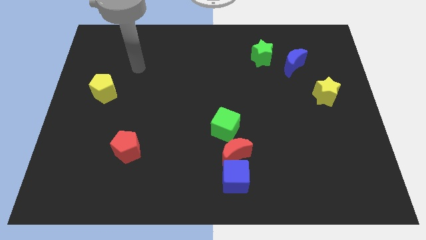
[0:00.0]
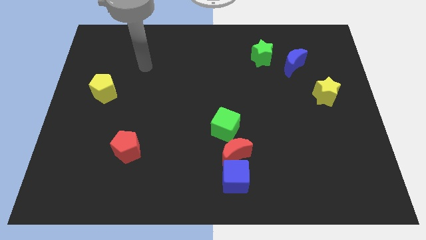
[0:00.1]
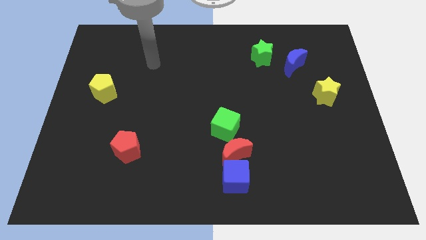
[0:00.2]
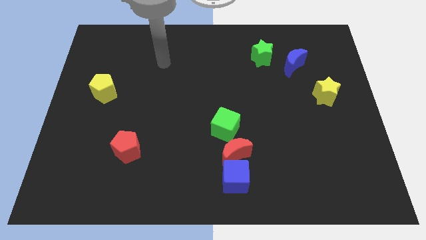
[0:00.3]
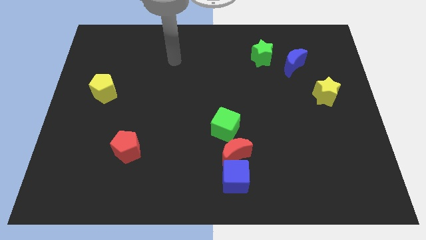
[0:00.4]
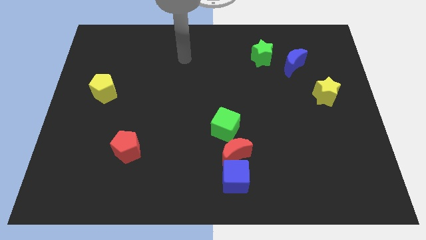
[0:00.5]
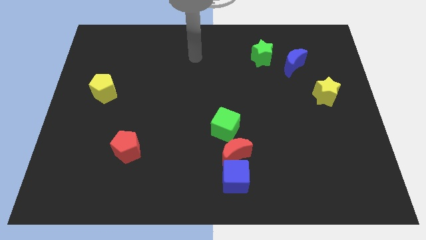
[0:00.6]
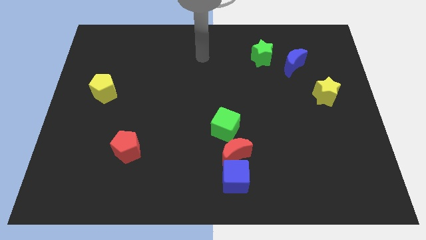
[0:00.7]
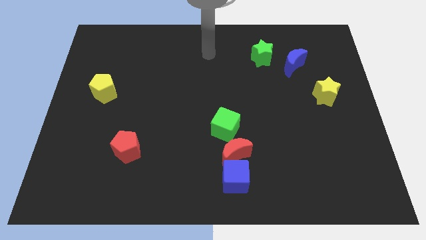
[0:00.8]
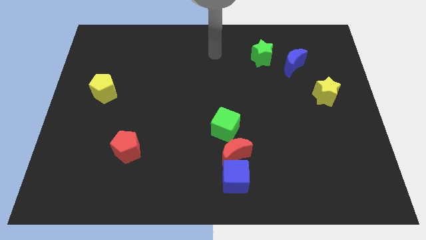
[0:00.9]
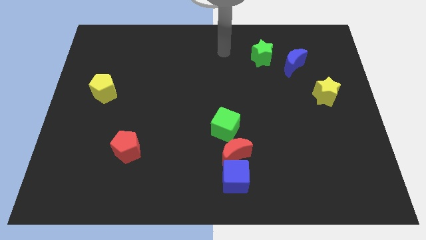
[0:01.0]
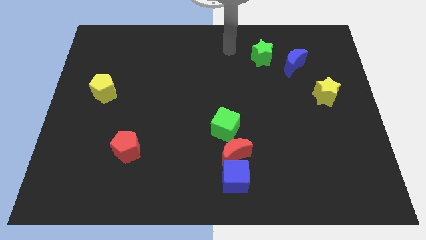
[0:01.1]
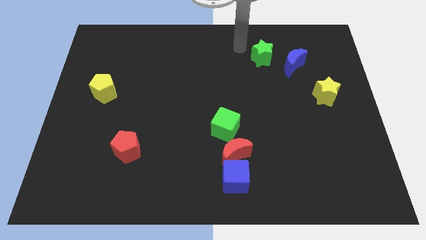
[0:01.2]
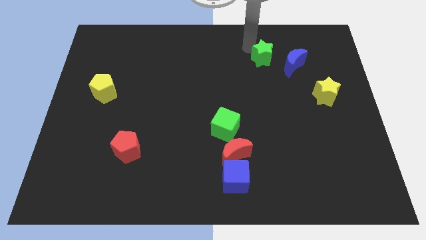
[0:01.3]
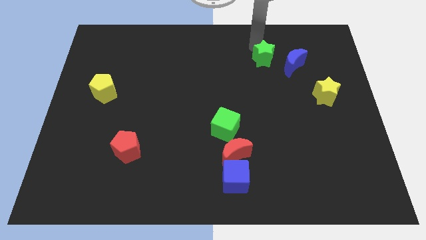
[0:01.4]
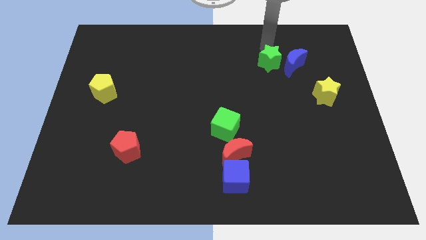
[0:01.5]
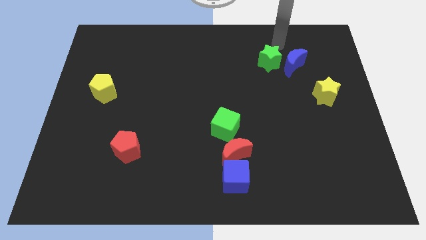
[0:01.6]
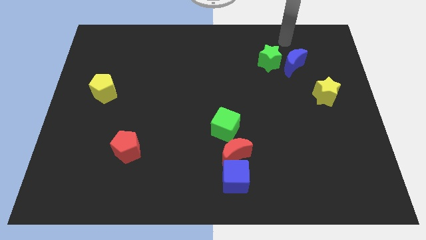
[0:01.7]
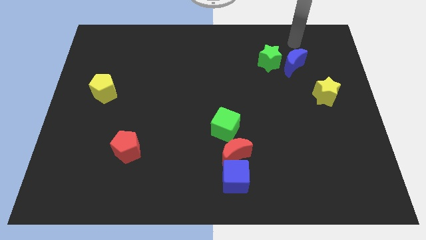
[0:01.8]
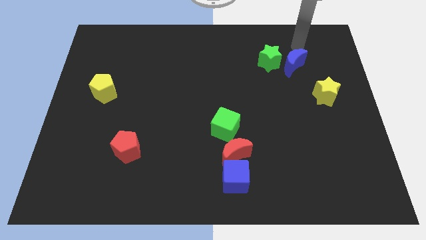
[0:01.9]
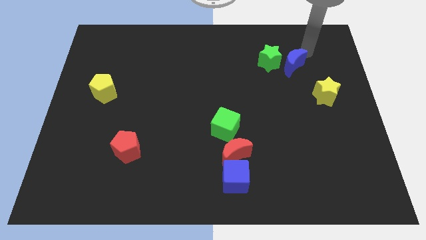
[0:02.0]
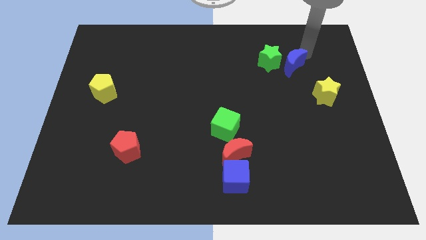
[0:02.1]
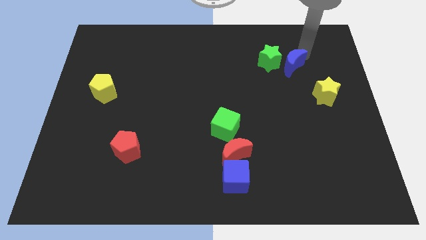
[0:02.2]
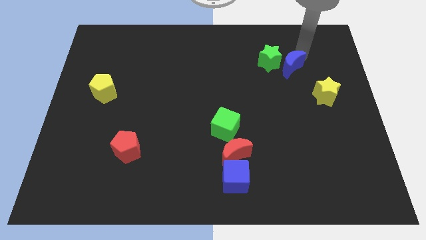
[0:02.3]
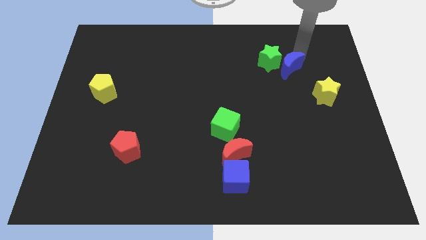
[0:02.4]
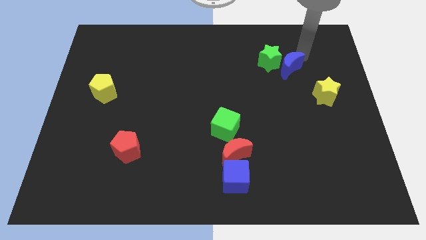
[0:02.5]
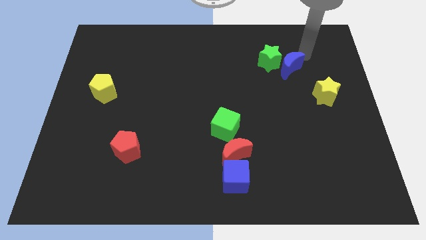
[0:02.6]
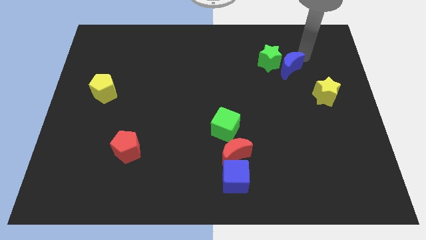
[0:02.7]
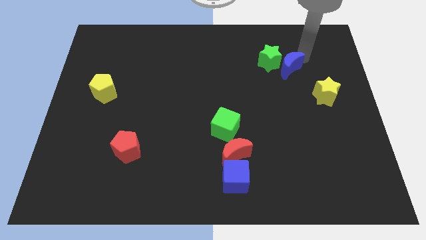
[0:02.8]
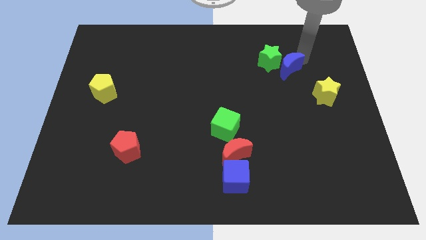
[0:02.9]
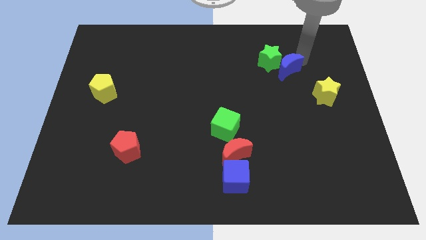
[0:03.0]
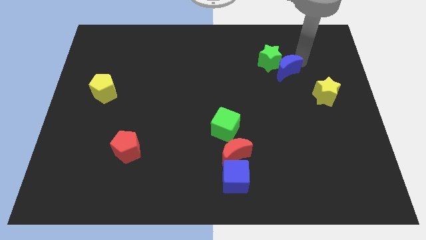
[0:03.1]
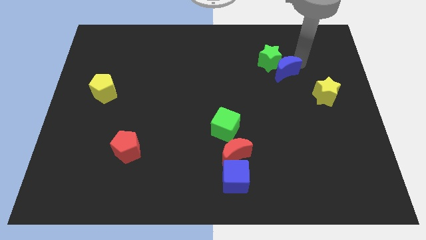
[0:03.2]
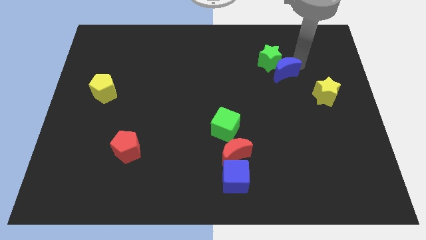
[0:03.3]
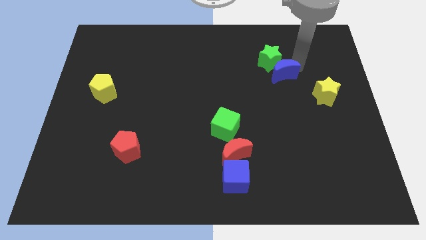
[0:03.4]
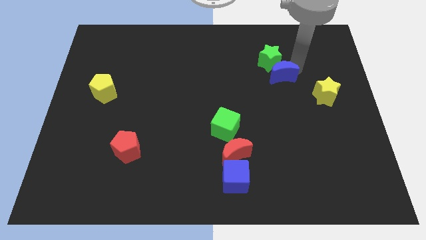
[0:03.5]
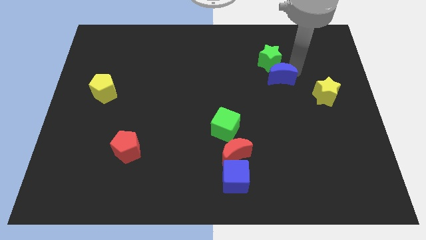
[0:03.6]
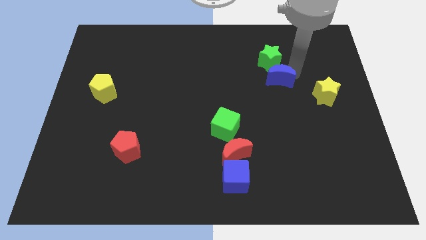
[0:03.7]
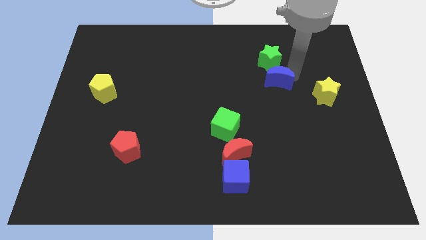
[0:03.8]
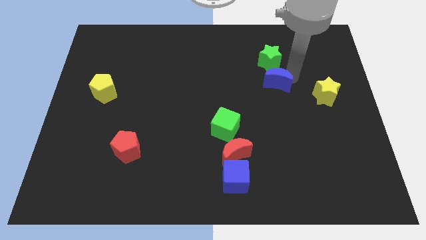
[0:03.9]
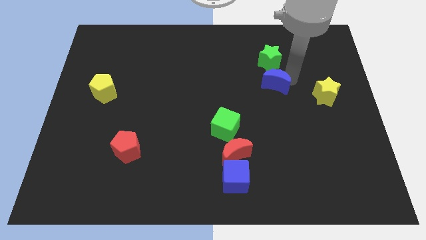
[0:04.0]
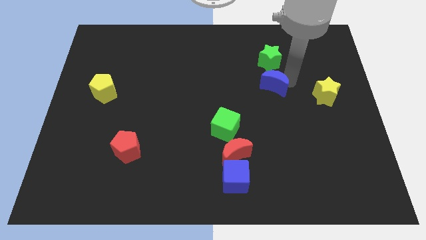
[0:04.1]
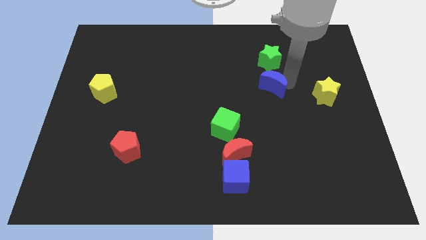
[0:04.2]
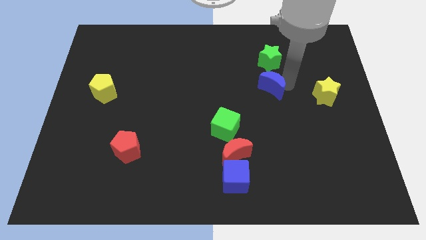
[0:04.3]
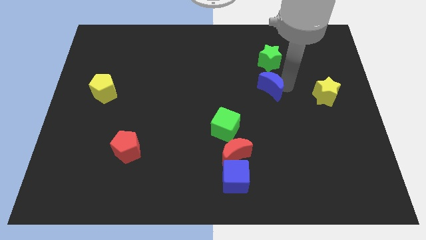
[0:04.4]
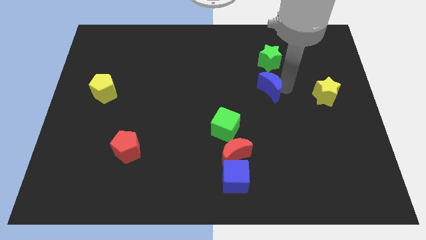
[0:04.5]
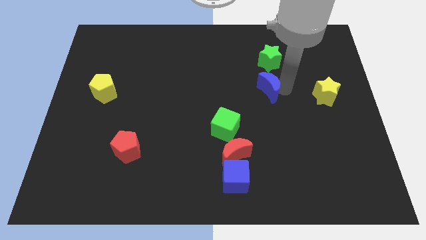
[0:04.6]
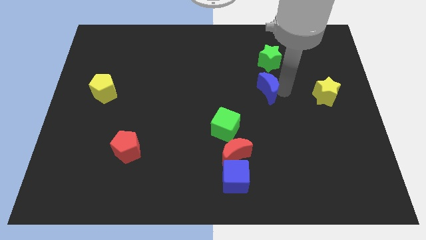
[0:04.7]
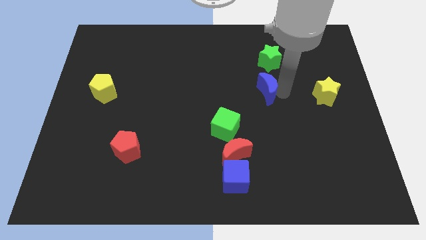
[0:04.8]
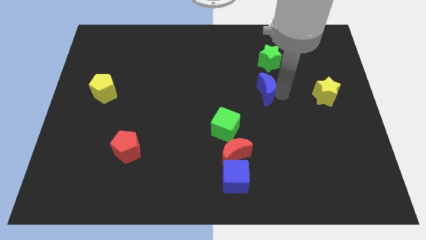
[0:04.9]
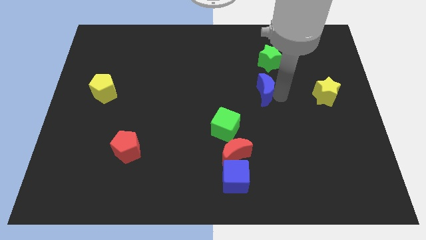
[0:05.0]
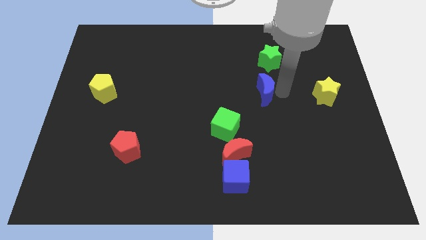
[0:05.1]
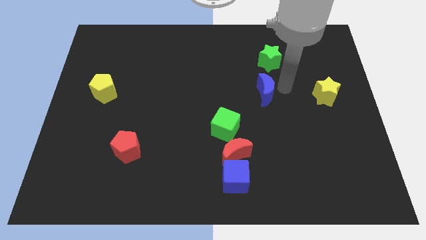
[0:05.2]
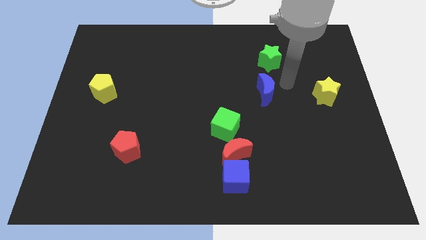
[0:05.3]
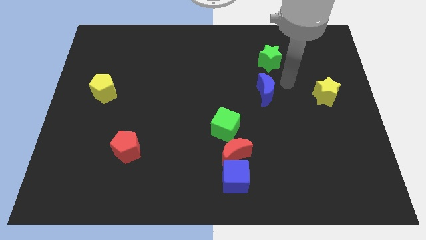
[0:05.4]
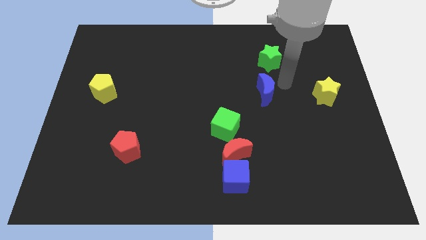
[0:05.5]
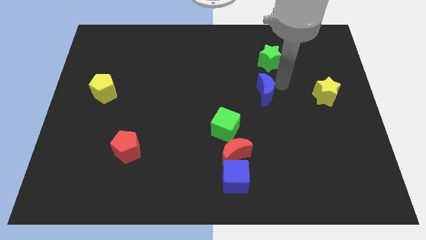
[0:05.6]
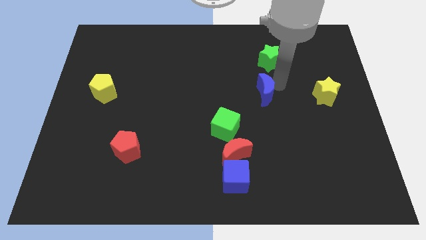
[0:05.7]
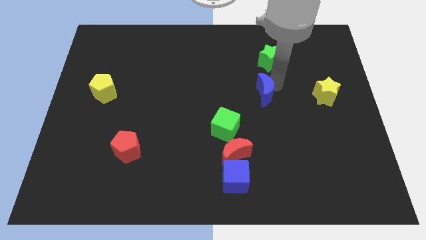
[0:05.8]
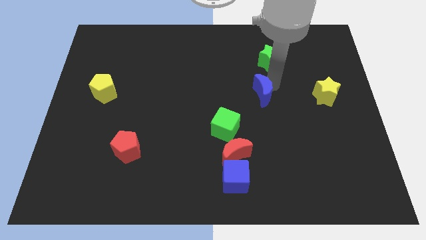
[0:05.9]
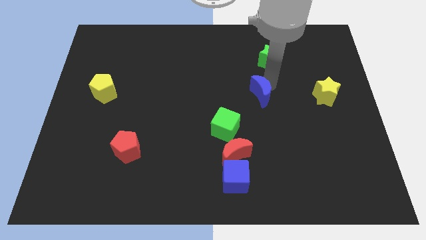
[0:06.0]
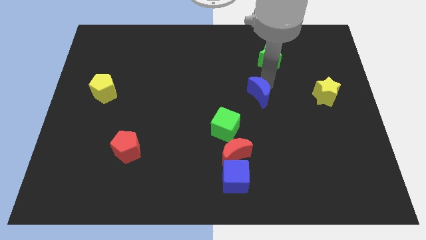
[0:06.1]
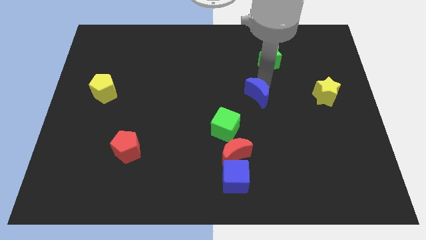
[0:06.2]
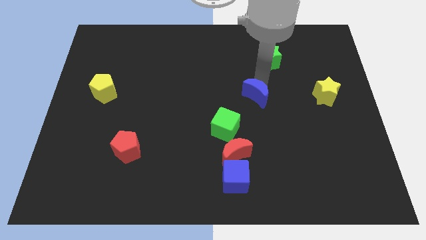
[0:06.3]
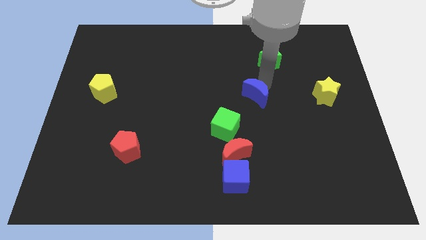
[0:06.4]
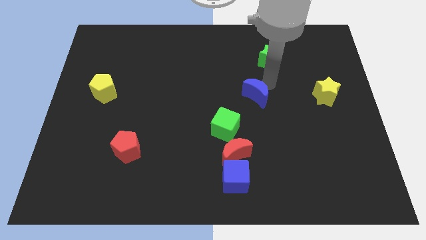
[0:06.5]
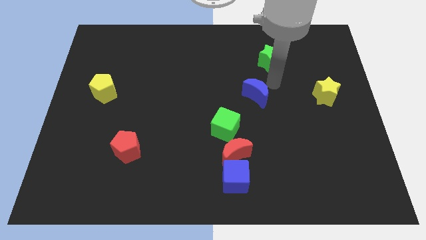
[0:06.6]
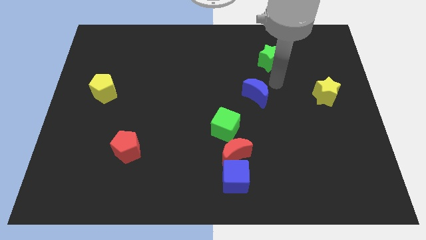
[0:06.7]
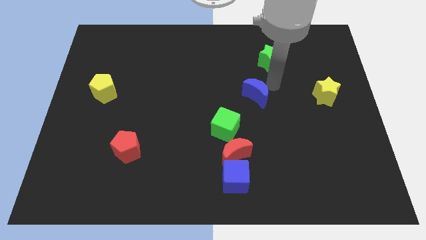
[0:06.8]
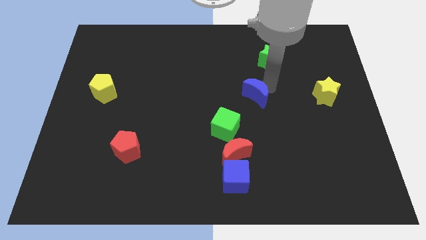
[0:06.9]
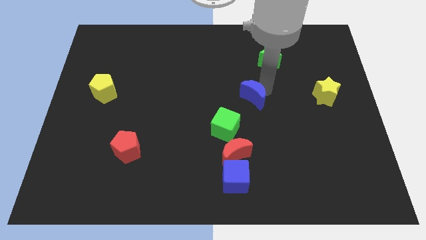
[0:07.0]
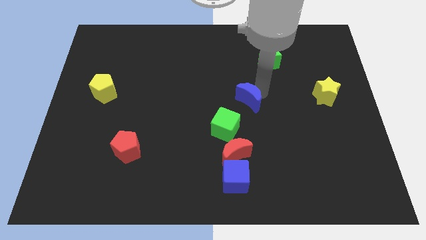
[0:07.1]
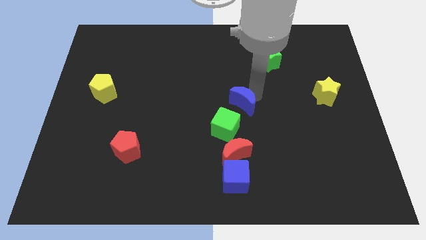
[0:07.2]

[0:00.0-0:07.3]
move the blue moon to the top side of the red moon
